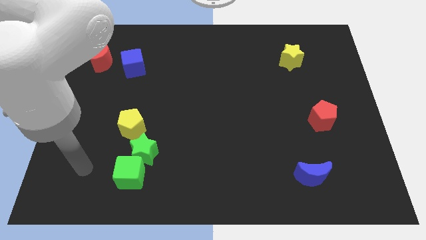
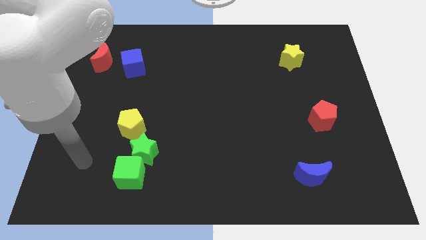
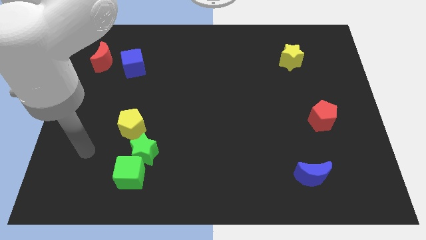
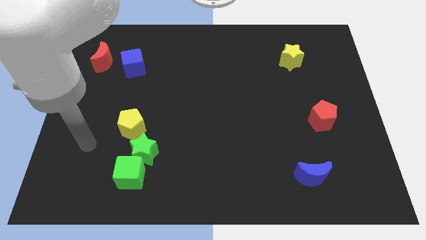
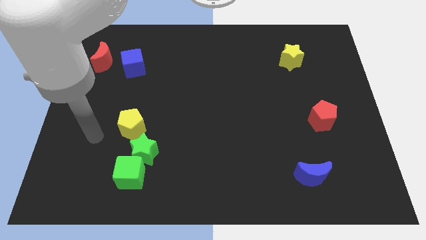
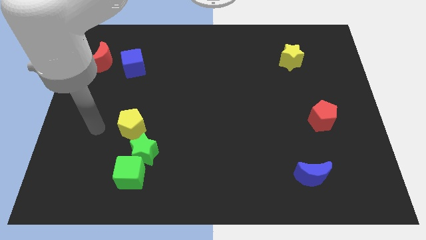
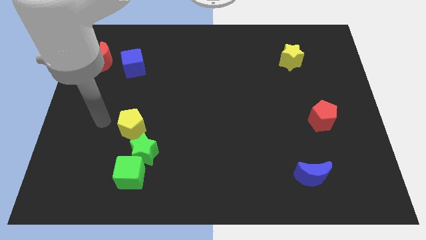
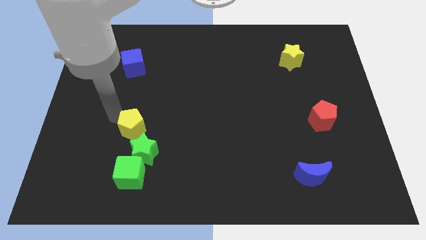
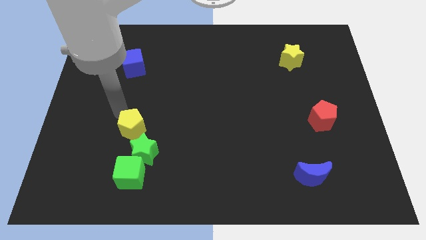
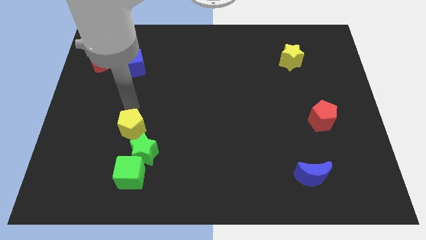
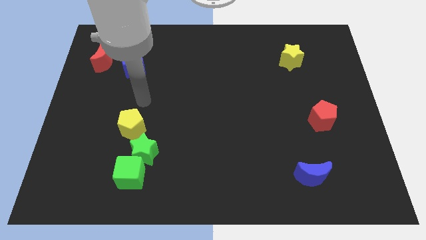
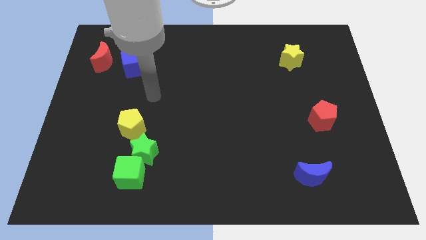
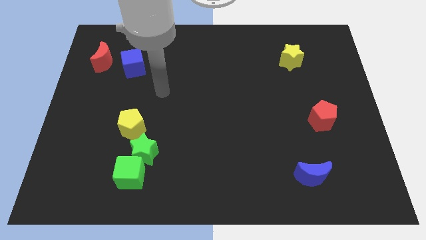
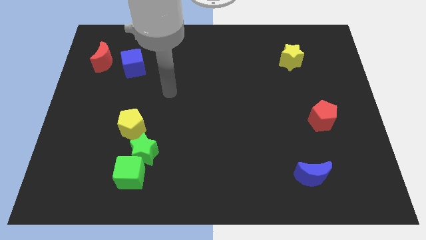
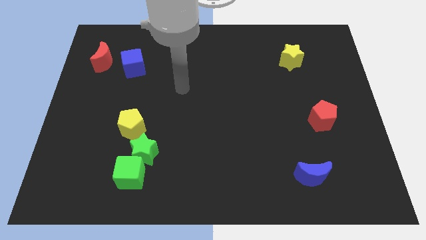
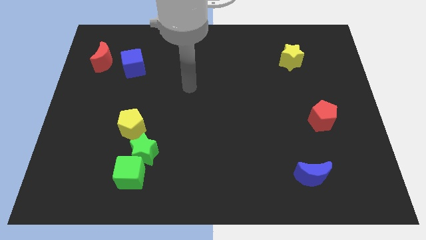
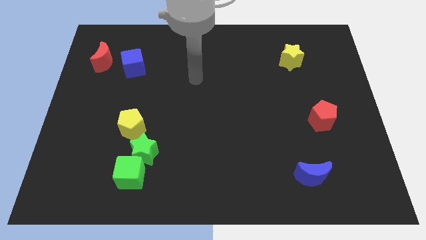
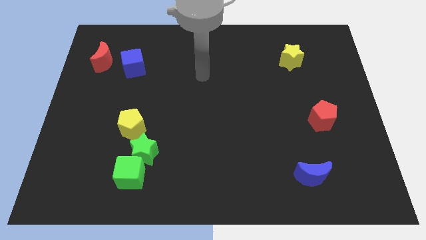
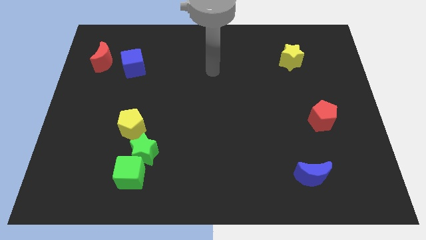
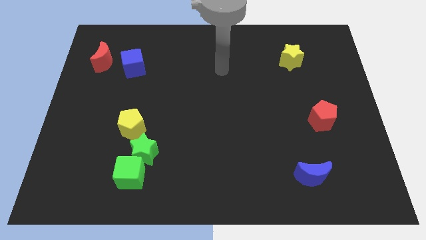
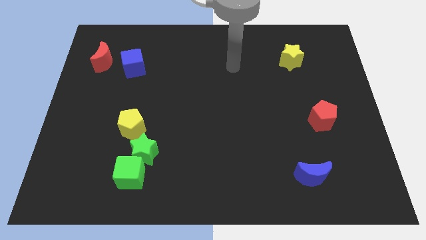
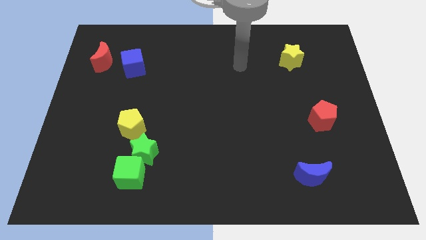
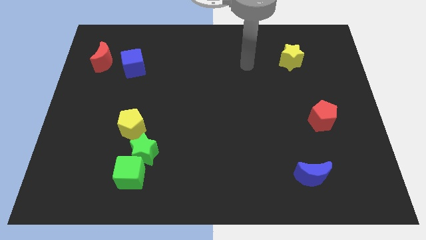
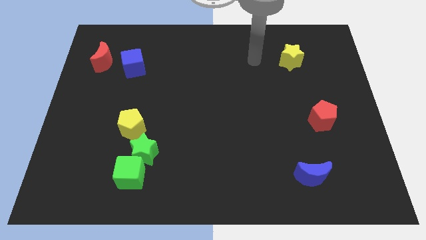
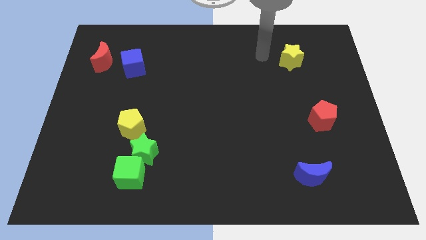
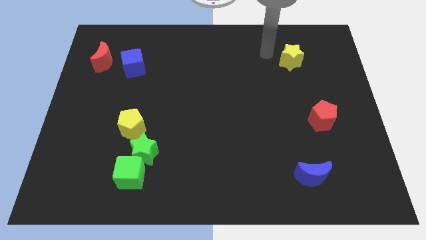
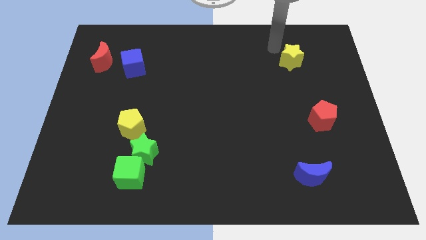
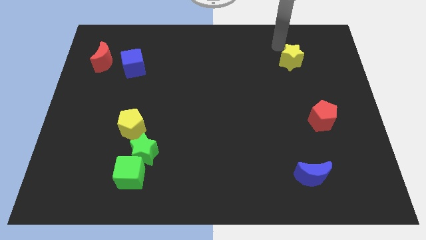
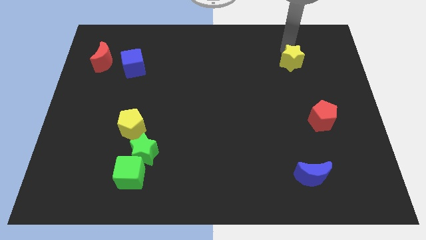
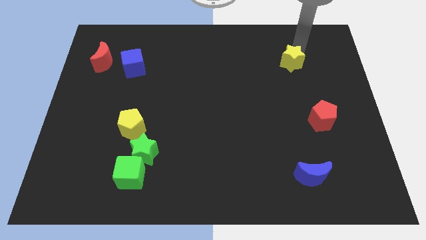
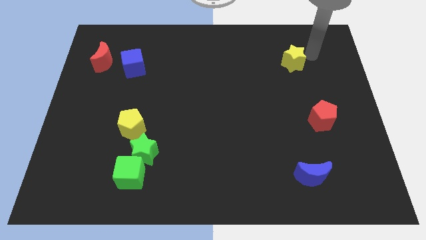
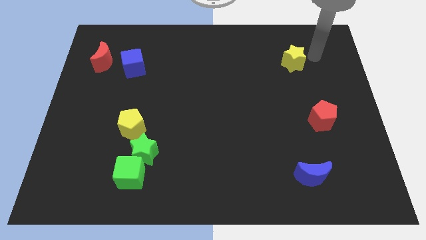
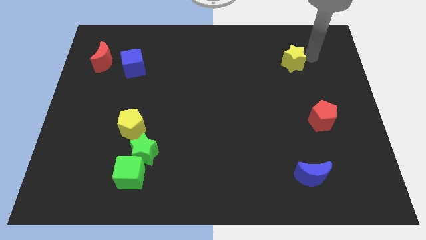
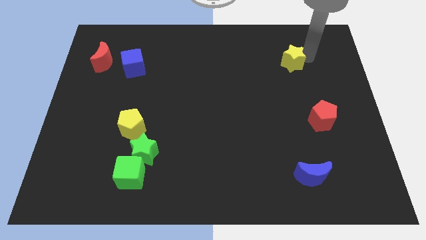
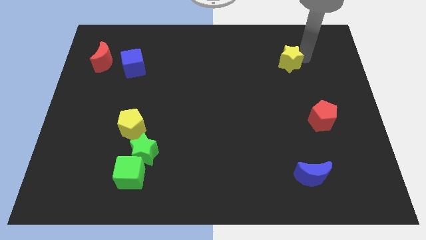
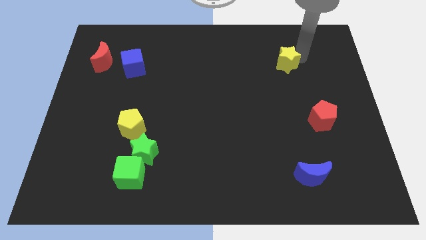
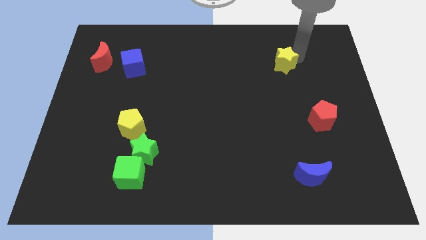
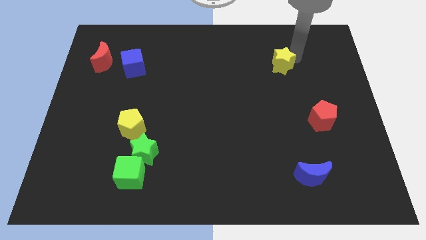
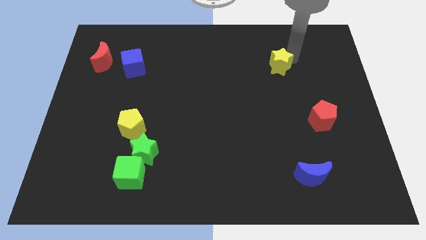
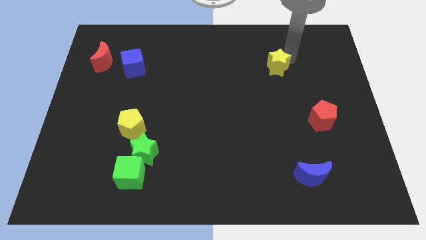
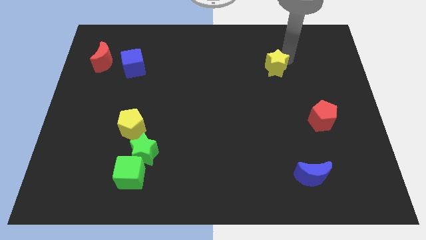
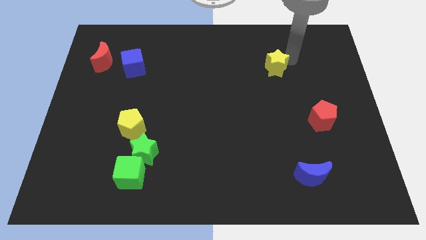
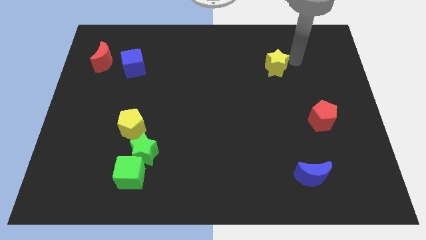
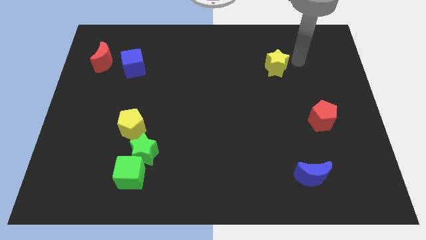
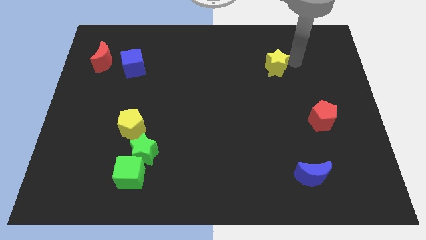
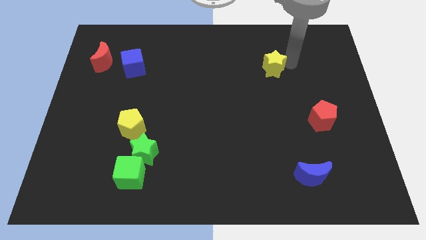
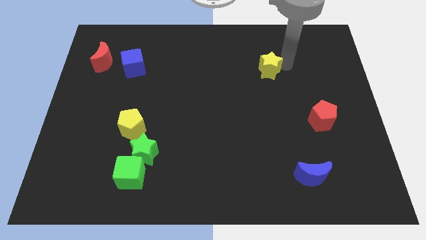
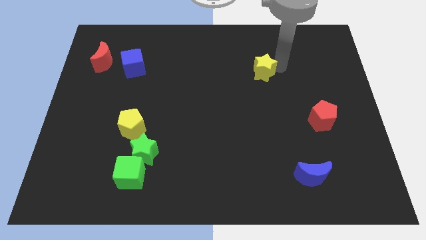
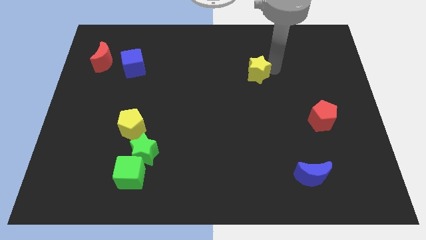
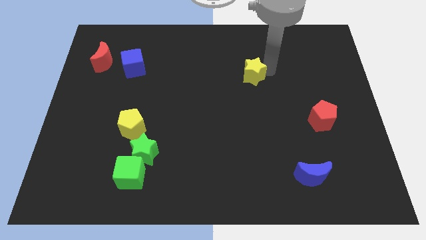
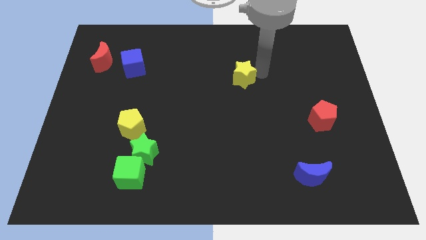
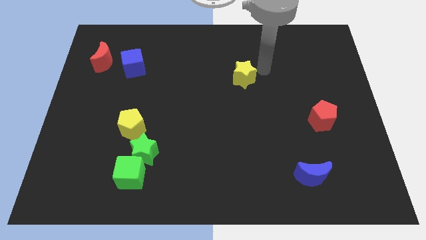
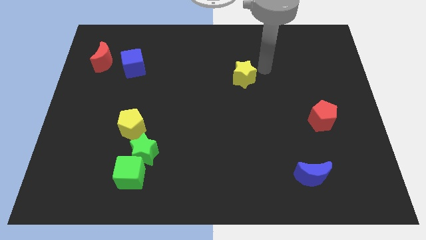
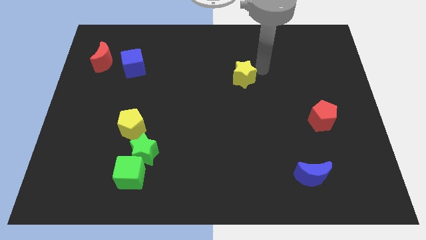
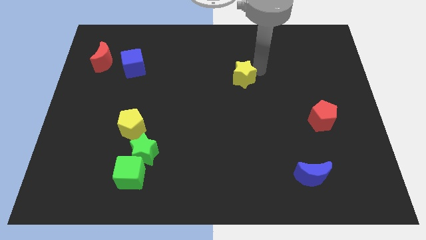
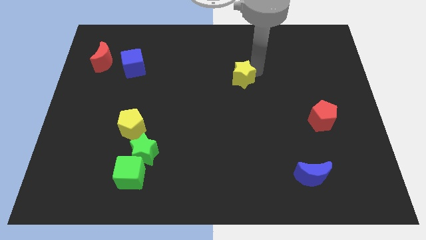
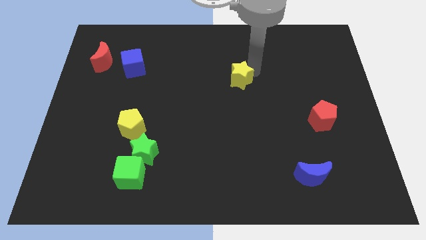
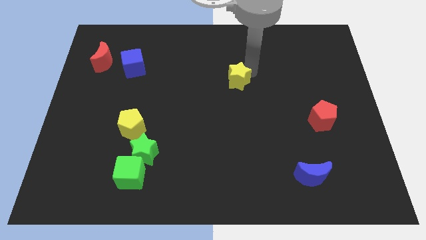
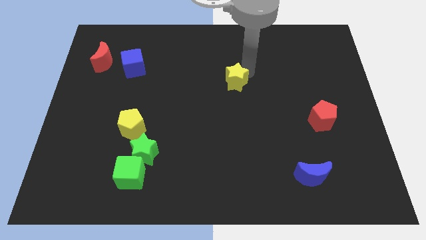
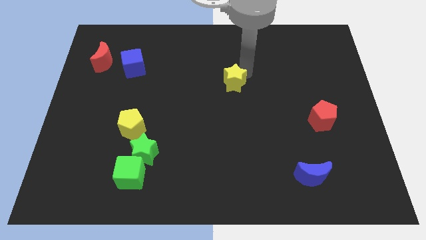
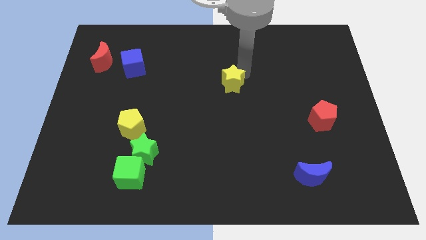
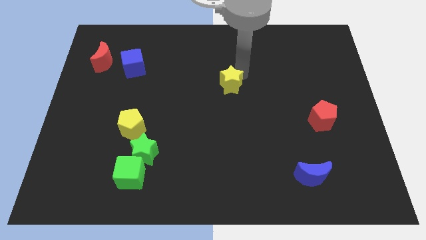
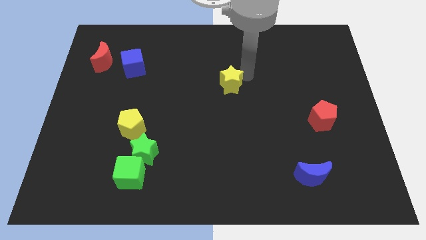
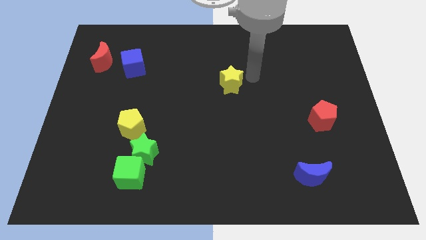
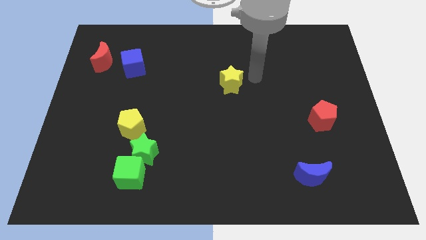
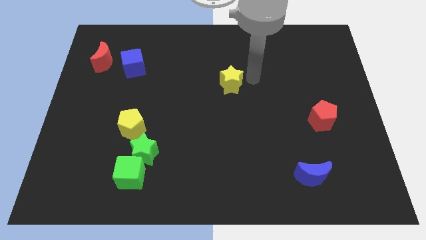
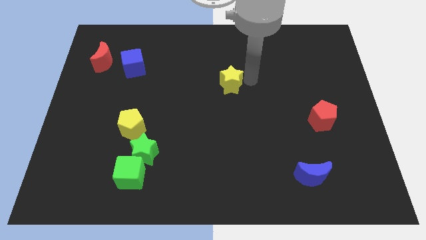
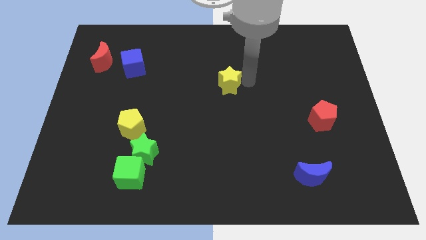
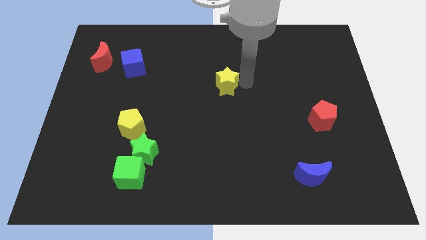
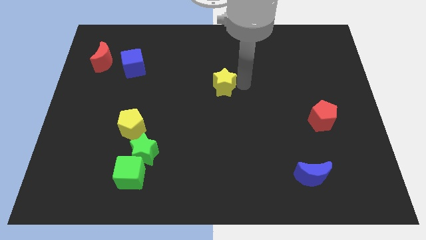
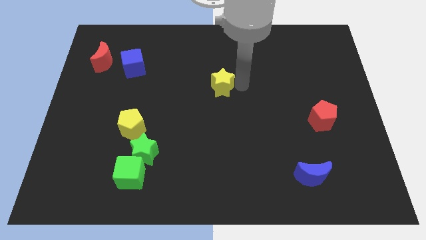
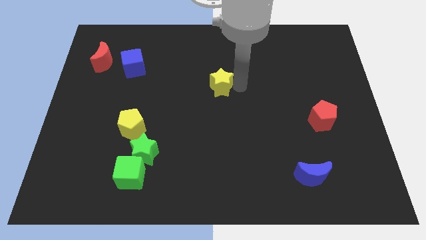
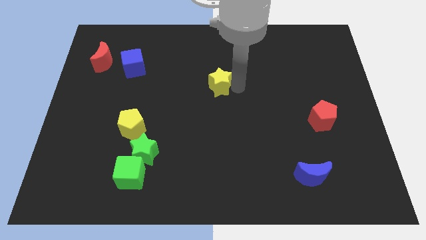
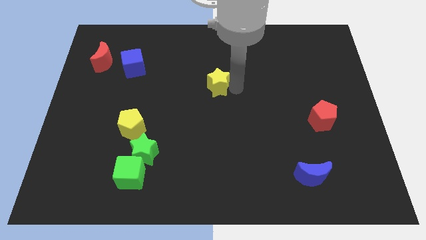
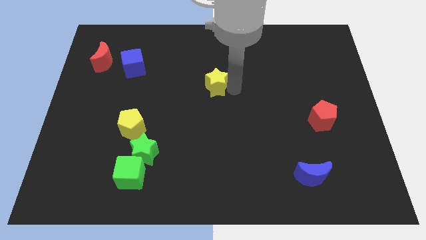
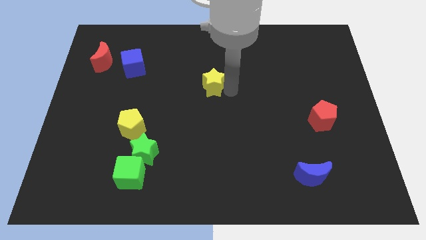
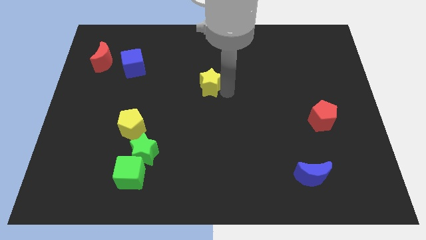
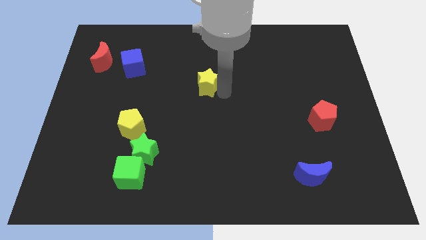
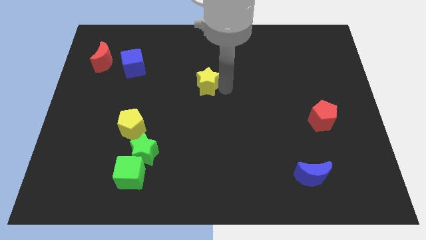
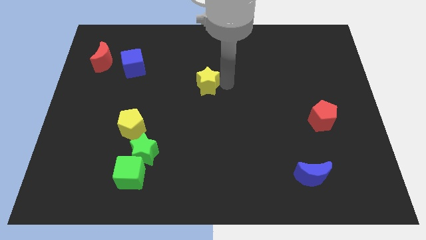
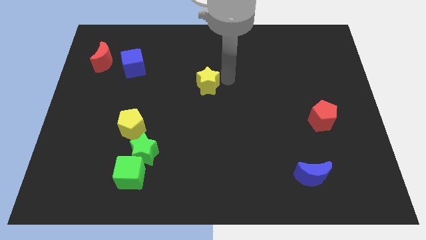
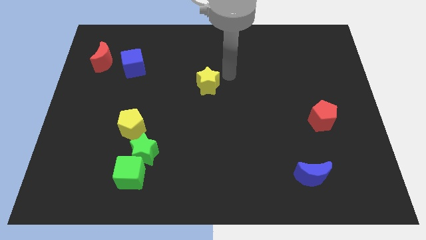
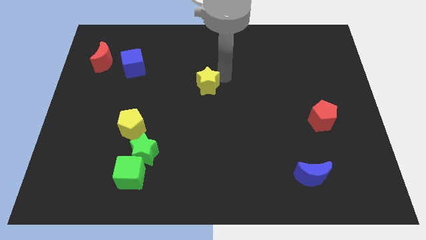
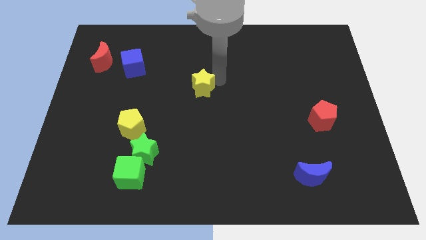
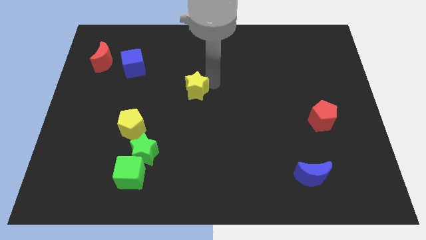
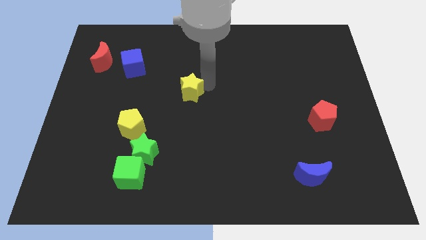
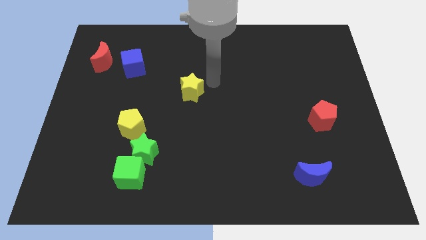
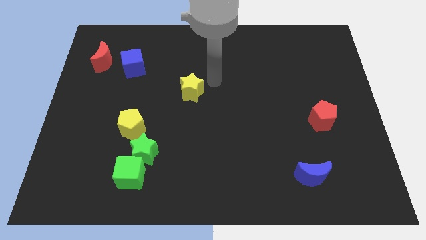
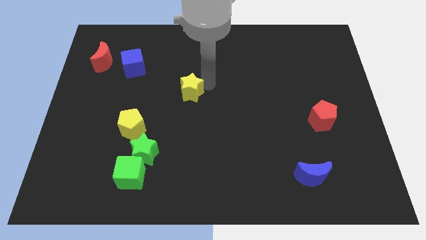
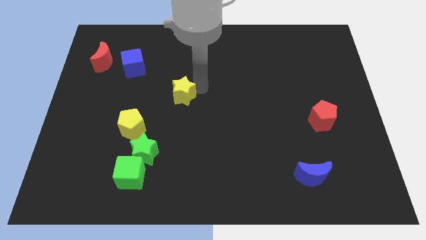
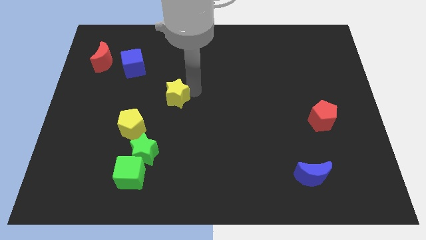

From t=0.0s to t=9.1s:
slide the yellow star to the top right of the yellow pentagon
